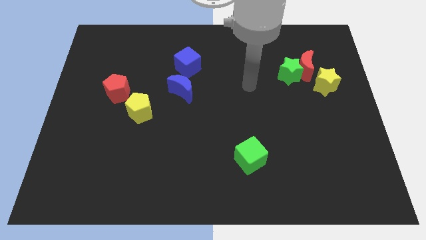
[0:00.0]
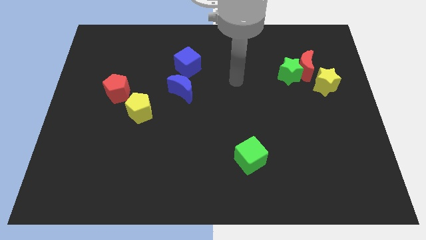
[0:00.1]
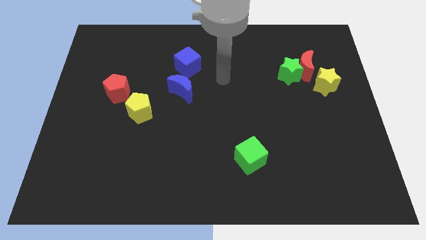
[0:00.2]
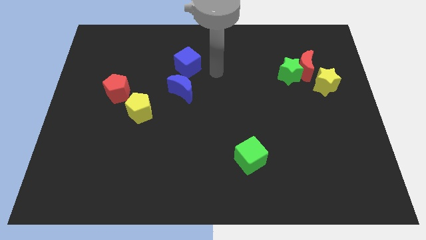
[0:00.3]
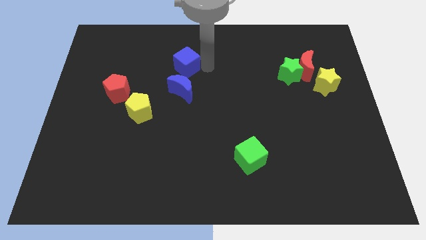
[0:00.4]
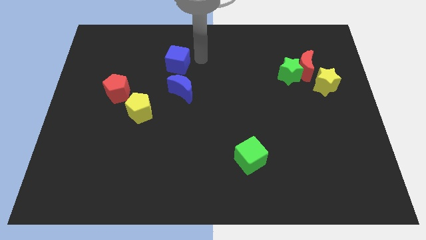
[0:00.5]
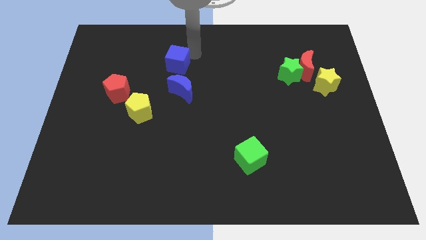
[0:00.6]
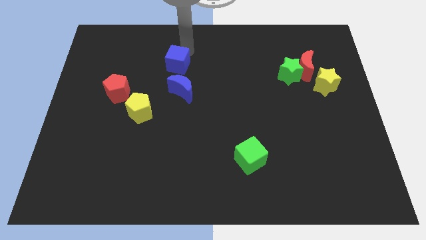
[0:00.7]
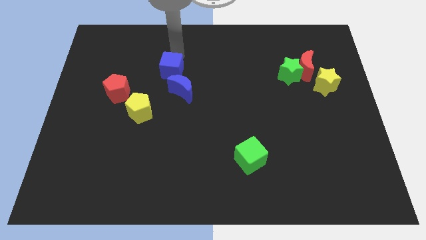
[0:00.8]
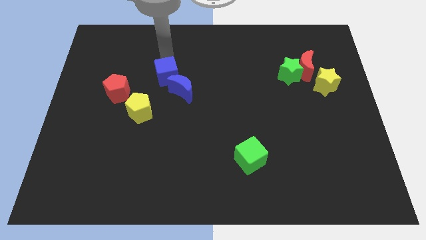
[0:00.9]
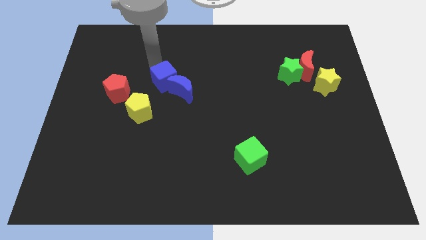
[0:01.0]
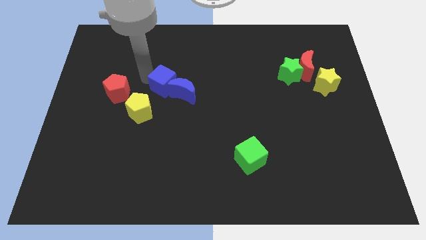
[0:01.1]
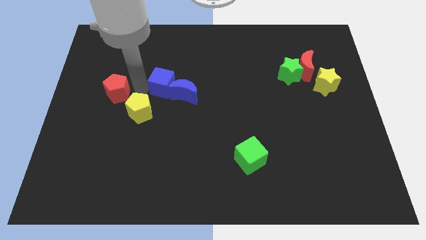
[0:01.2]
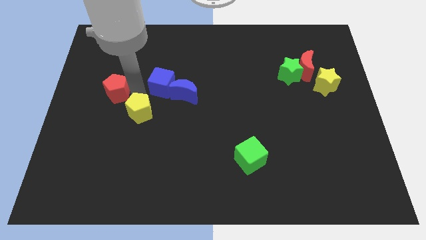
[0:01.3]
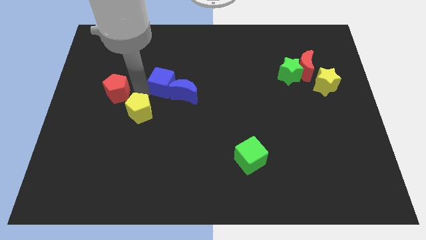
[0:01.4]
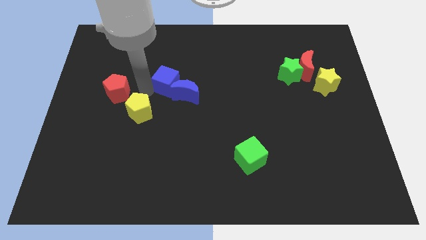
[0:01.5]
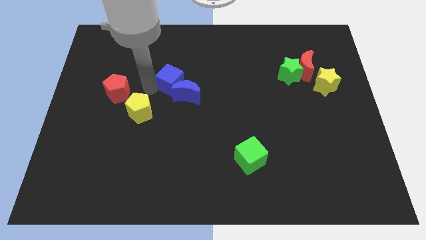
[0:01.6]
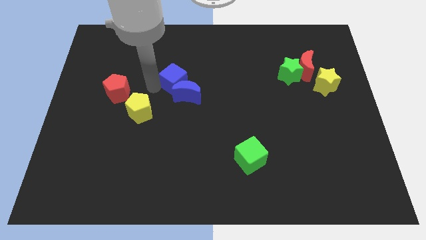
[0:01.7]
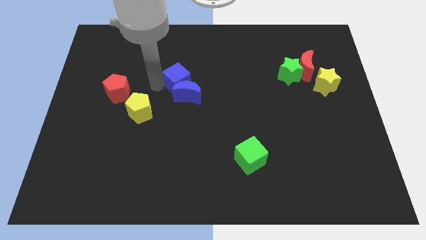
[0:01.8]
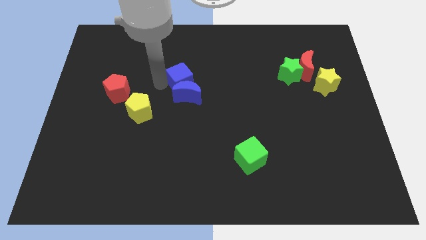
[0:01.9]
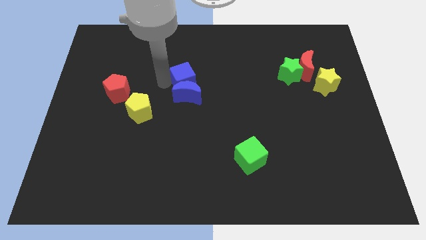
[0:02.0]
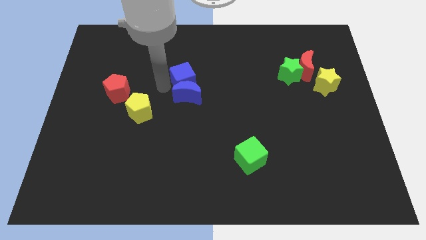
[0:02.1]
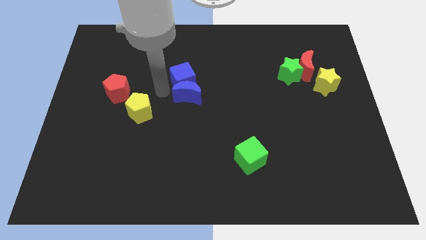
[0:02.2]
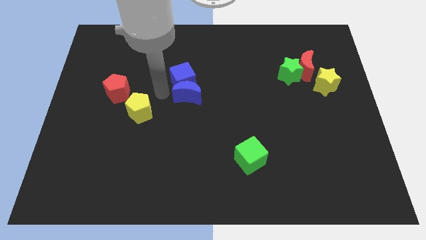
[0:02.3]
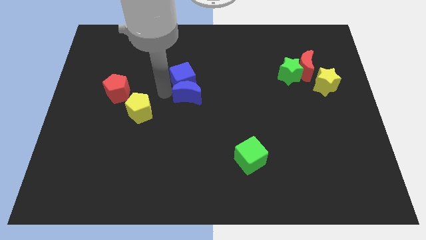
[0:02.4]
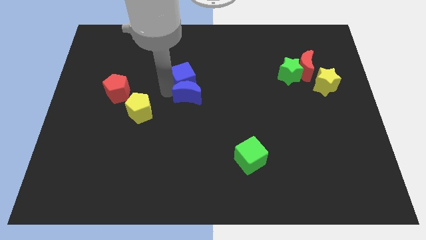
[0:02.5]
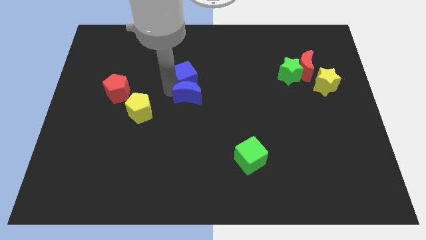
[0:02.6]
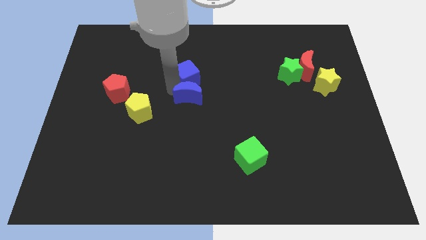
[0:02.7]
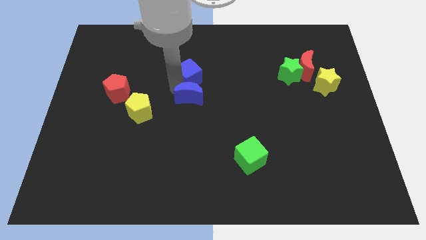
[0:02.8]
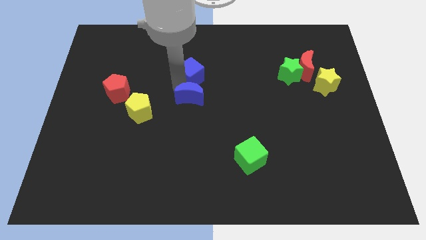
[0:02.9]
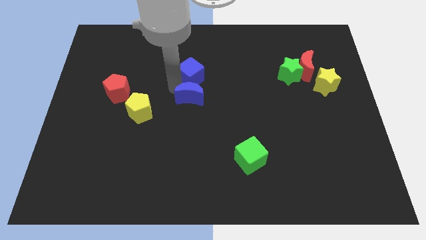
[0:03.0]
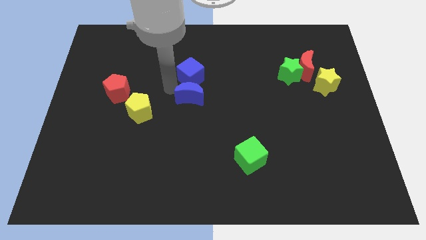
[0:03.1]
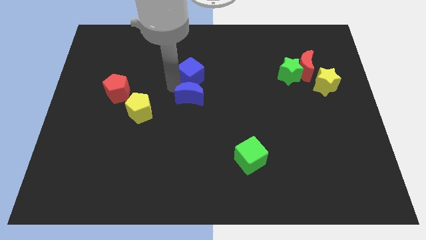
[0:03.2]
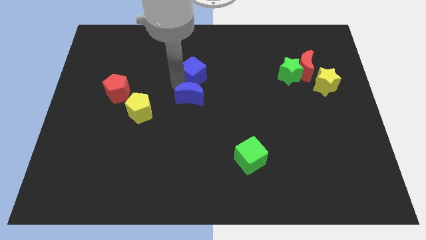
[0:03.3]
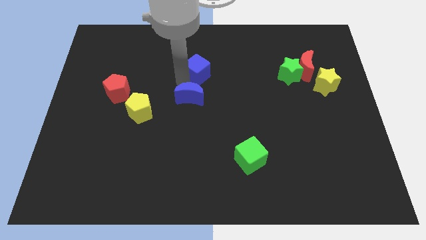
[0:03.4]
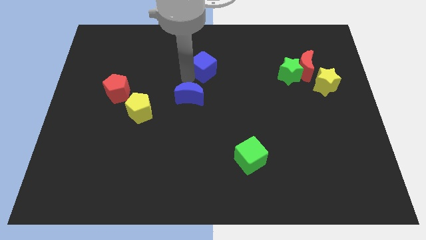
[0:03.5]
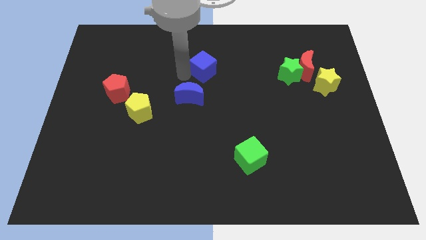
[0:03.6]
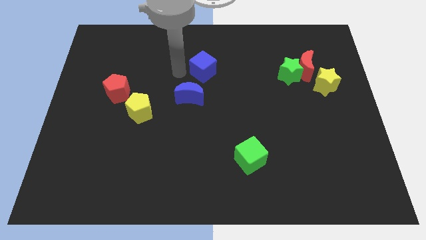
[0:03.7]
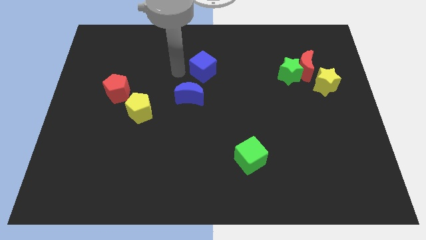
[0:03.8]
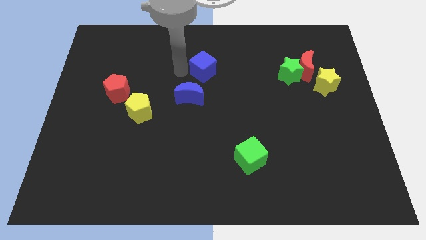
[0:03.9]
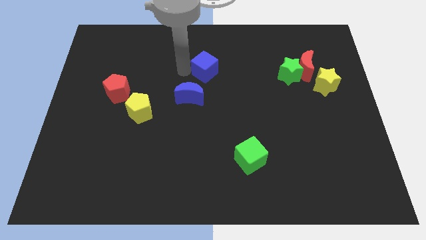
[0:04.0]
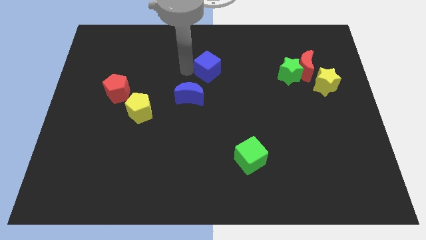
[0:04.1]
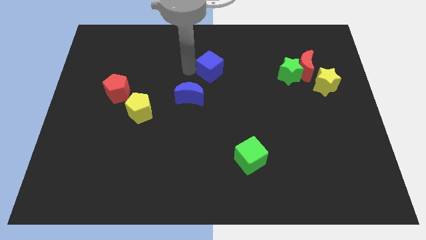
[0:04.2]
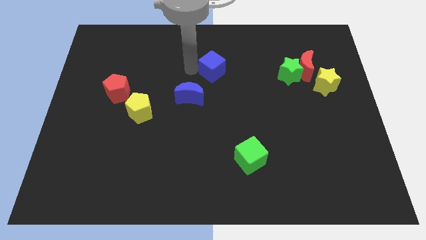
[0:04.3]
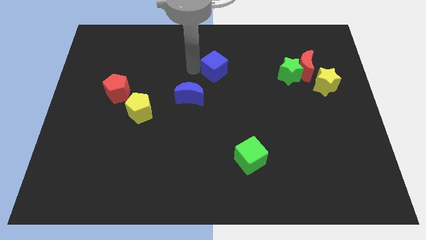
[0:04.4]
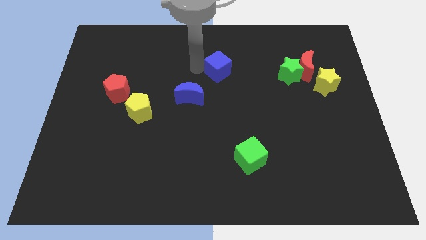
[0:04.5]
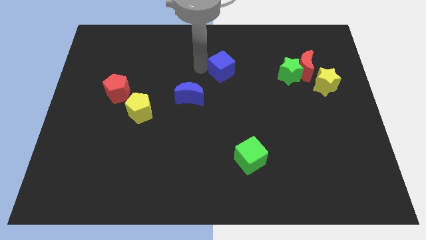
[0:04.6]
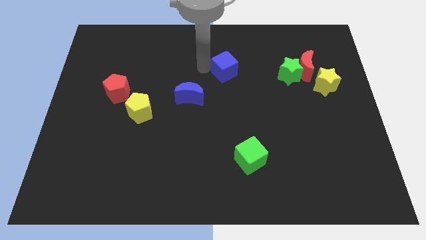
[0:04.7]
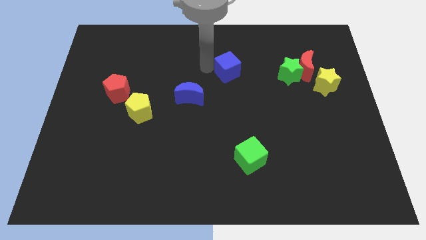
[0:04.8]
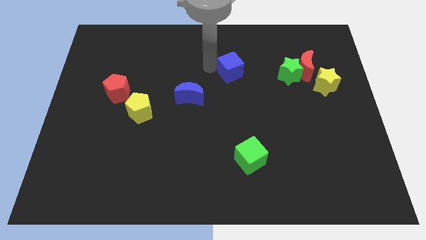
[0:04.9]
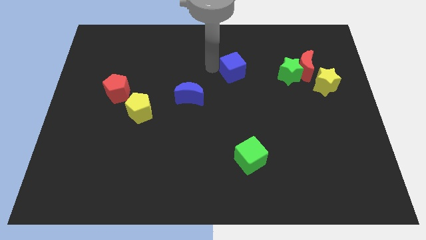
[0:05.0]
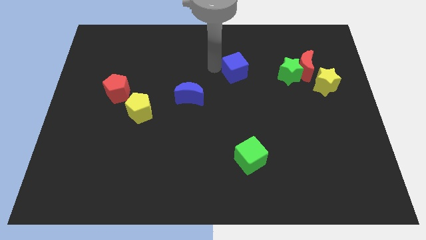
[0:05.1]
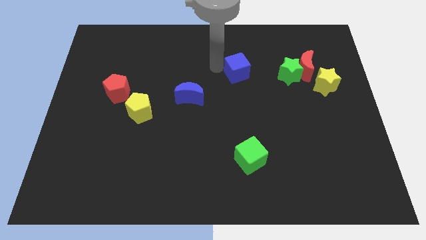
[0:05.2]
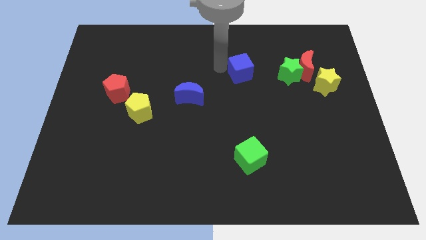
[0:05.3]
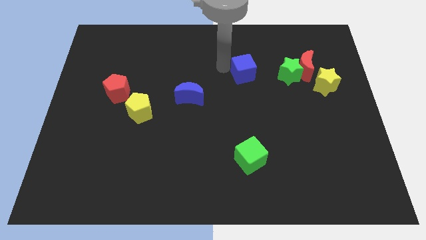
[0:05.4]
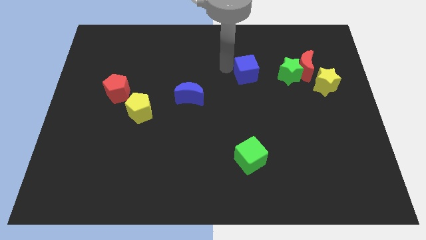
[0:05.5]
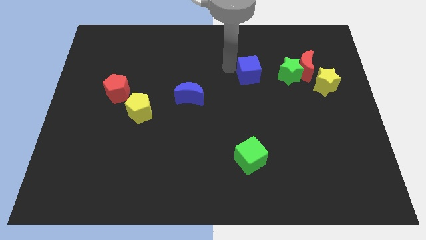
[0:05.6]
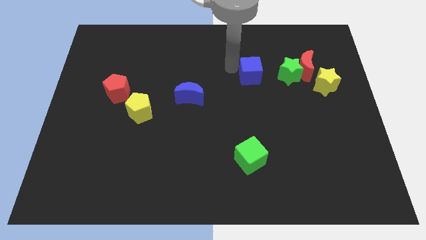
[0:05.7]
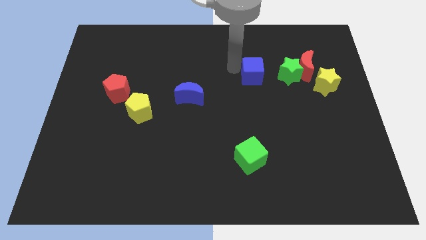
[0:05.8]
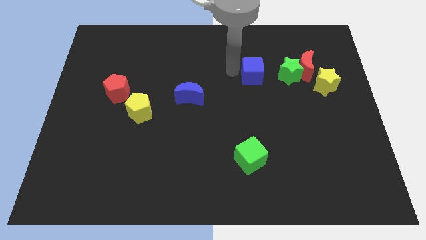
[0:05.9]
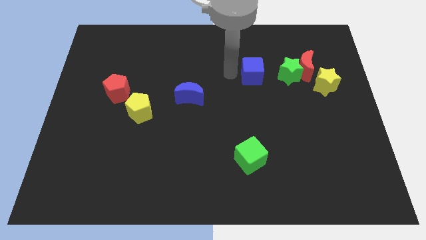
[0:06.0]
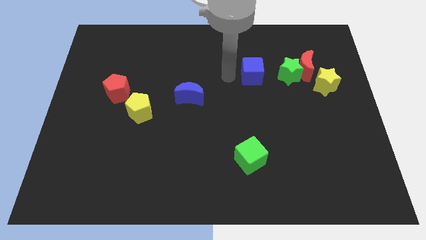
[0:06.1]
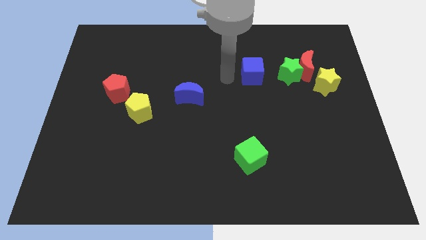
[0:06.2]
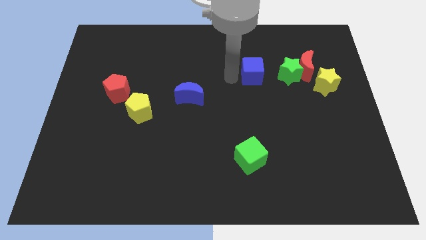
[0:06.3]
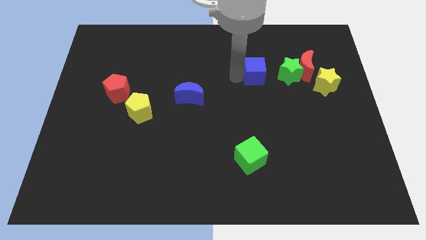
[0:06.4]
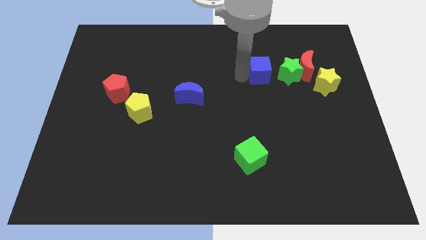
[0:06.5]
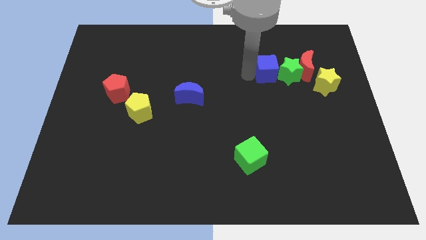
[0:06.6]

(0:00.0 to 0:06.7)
slide the blue cube to the green star

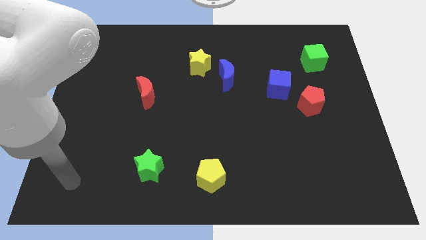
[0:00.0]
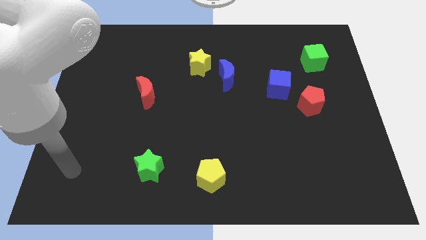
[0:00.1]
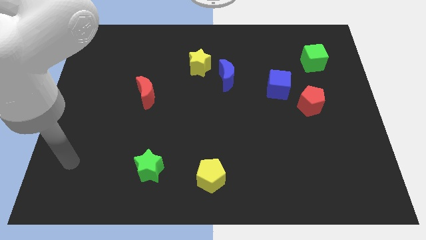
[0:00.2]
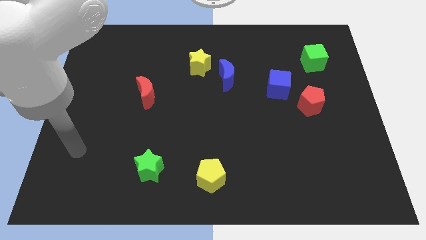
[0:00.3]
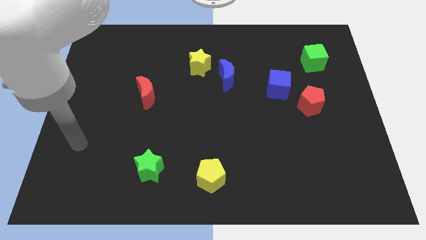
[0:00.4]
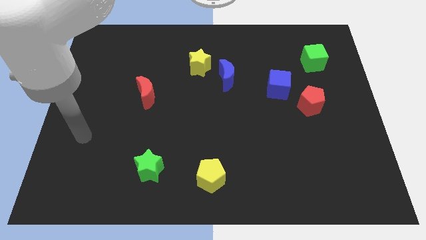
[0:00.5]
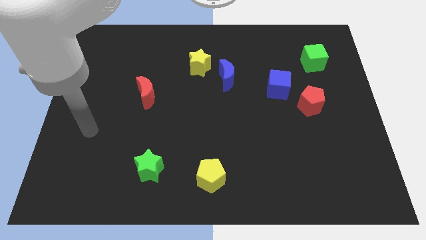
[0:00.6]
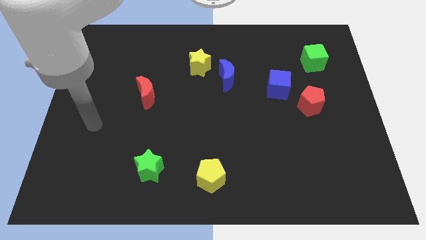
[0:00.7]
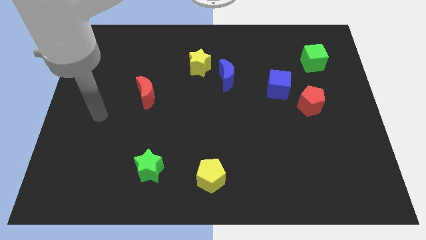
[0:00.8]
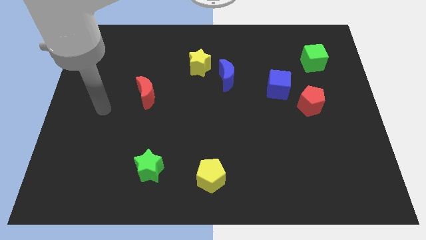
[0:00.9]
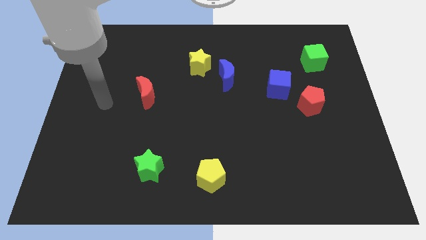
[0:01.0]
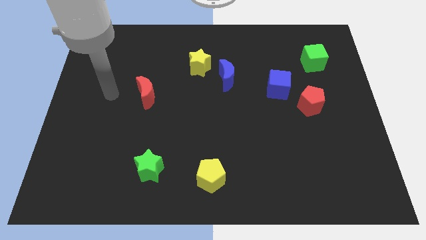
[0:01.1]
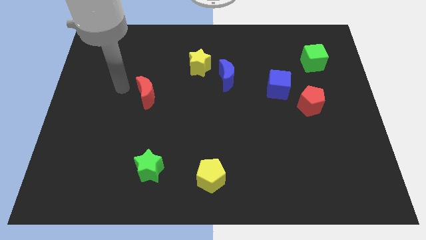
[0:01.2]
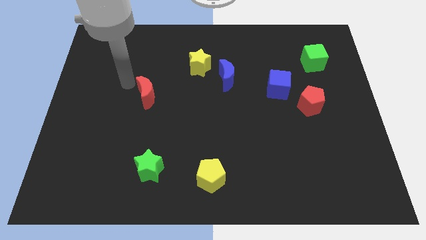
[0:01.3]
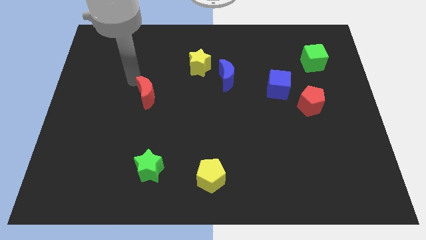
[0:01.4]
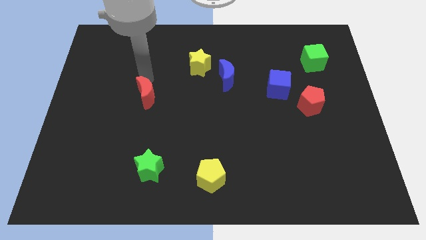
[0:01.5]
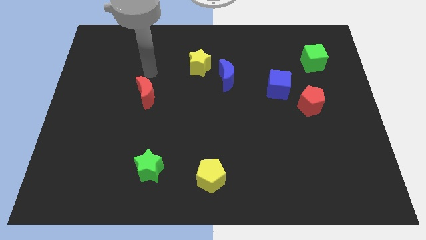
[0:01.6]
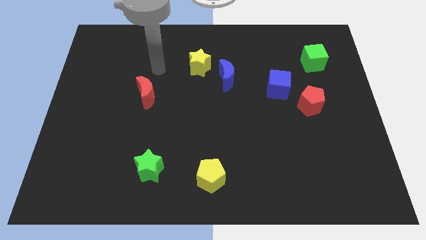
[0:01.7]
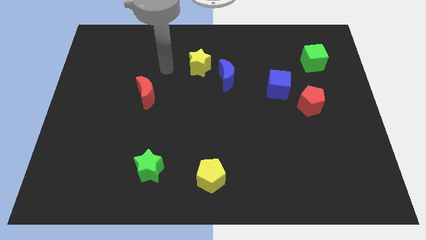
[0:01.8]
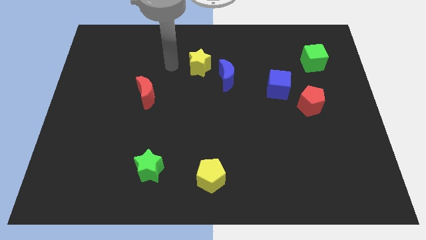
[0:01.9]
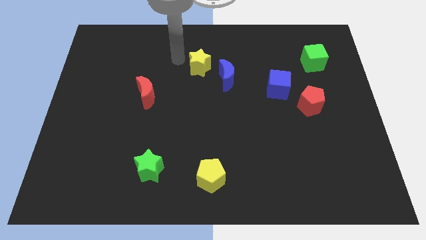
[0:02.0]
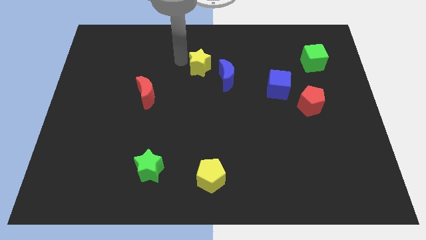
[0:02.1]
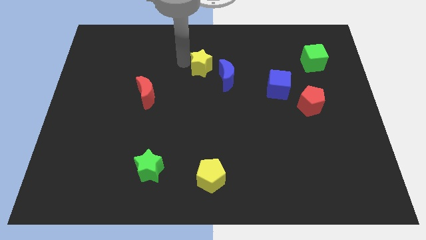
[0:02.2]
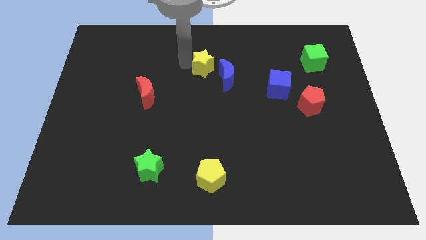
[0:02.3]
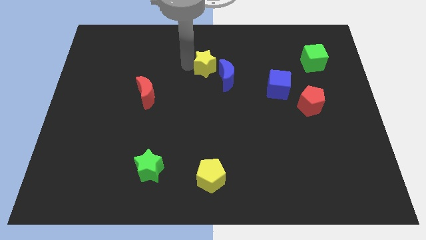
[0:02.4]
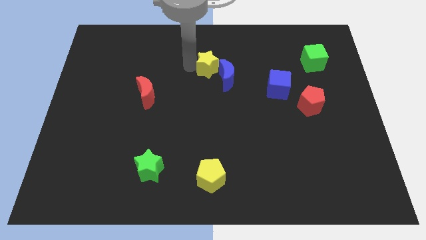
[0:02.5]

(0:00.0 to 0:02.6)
slide the yellow star towards the blue moon
